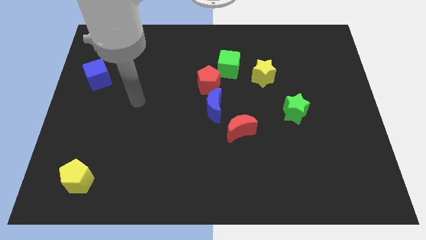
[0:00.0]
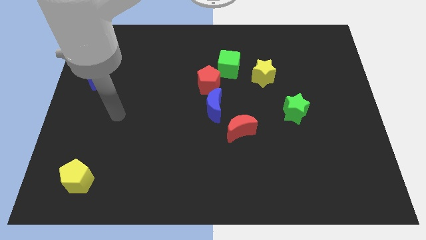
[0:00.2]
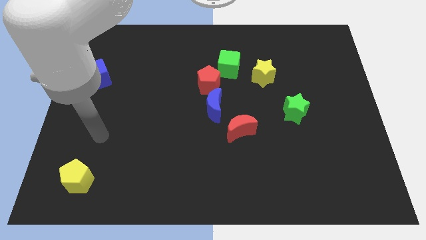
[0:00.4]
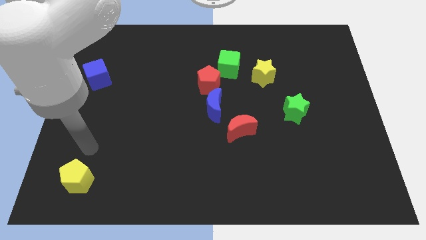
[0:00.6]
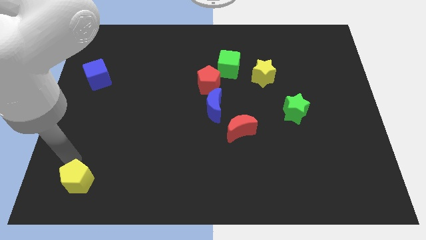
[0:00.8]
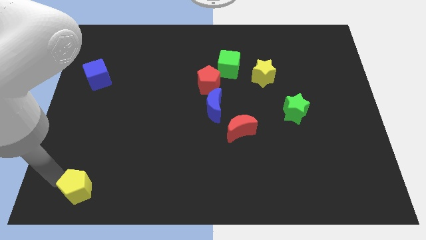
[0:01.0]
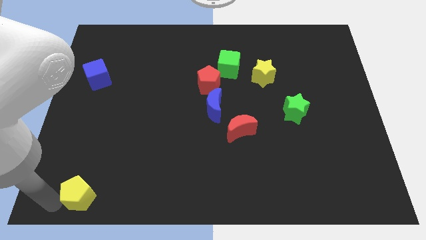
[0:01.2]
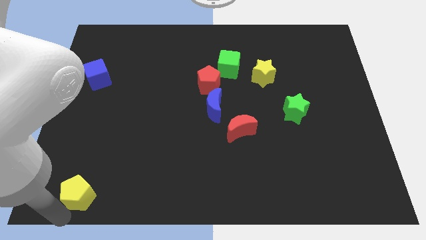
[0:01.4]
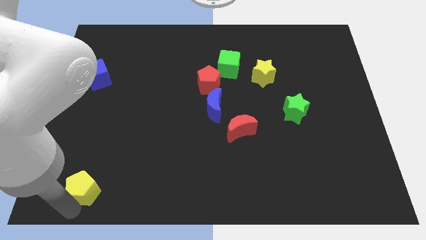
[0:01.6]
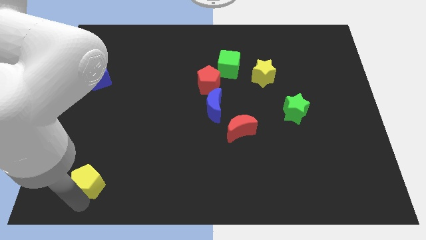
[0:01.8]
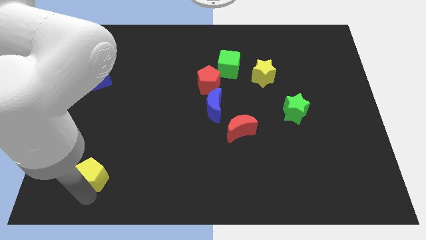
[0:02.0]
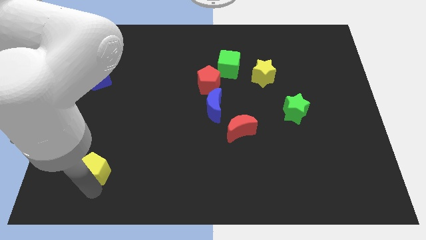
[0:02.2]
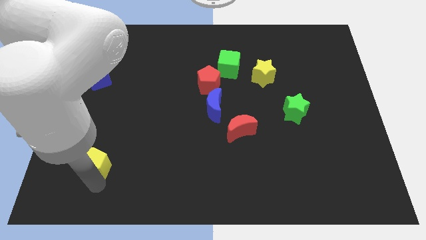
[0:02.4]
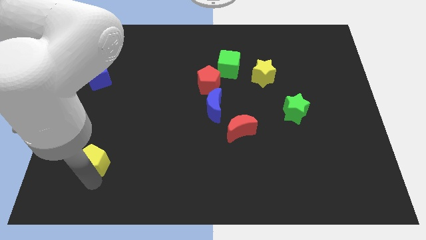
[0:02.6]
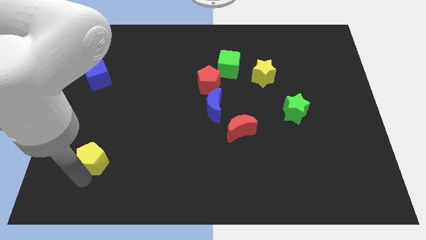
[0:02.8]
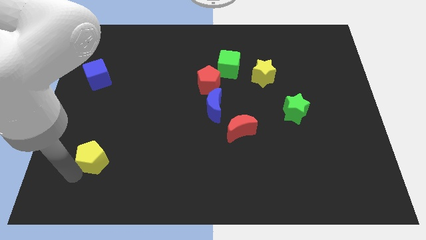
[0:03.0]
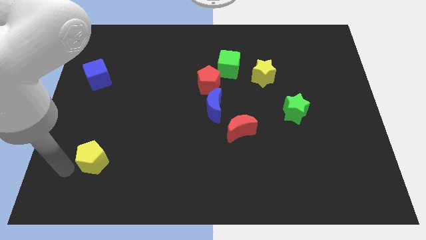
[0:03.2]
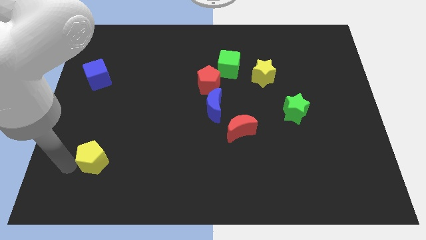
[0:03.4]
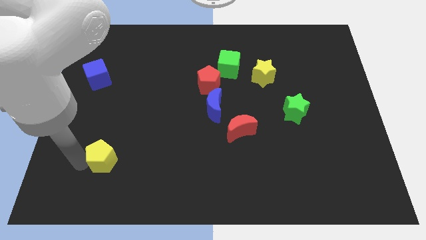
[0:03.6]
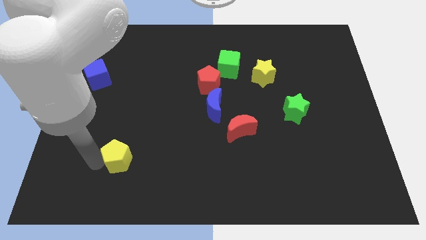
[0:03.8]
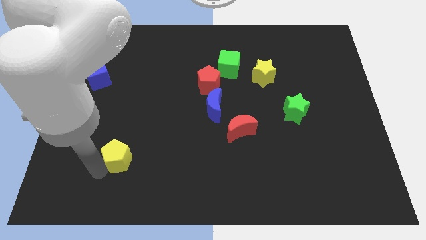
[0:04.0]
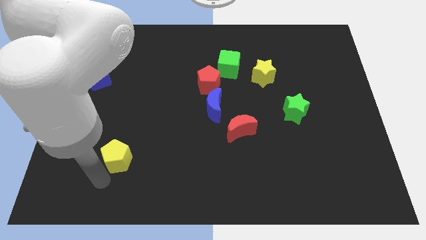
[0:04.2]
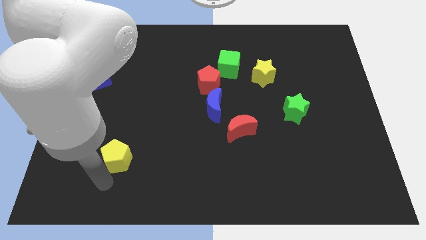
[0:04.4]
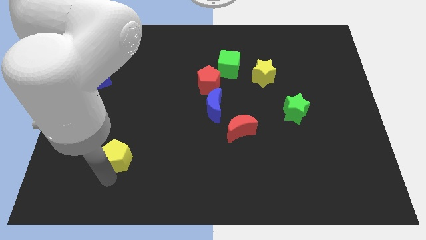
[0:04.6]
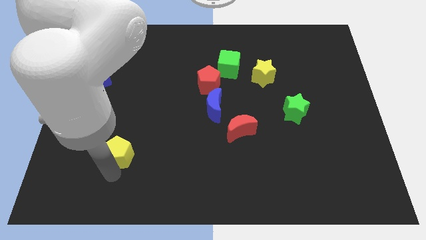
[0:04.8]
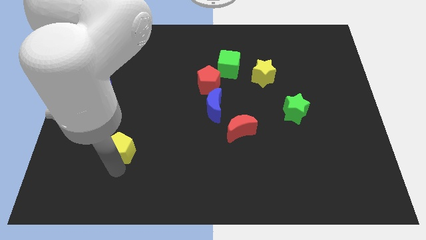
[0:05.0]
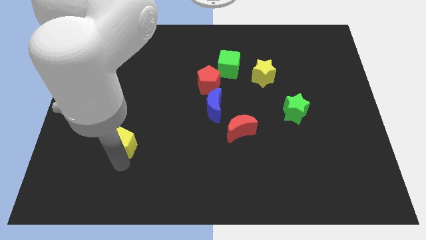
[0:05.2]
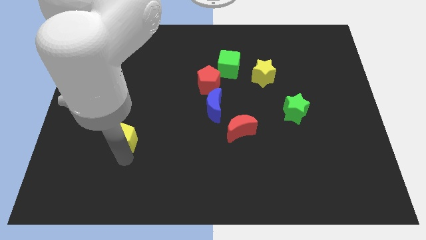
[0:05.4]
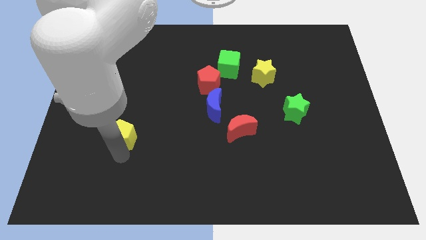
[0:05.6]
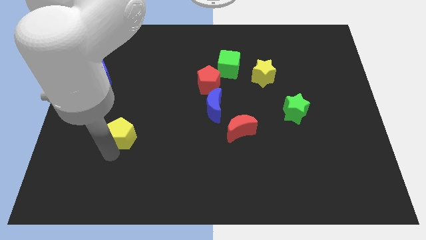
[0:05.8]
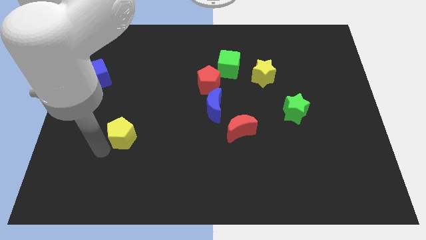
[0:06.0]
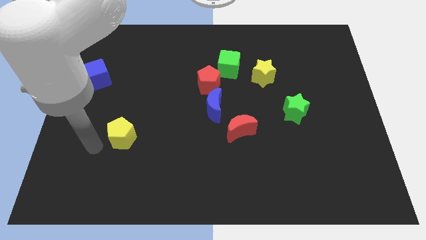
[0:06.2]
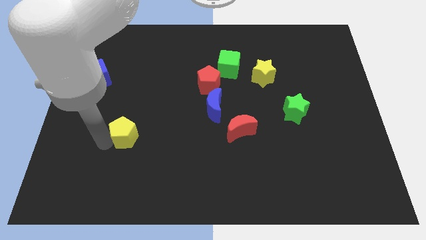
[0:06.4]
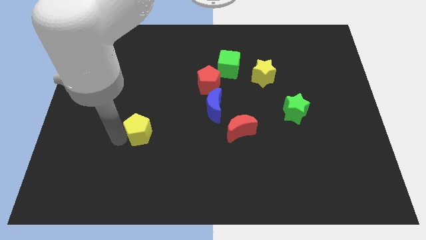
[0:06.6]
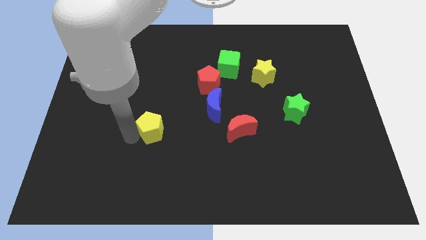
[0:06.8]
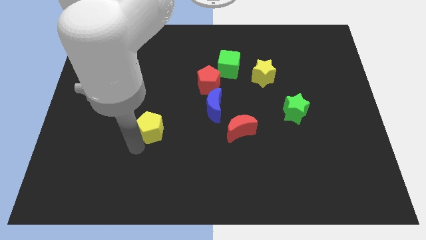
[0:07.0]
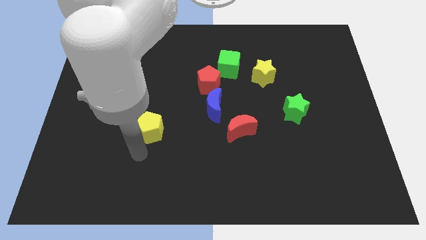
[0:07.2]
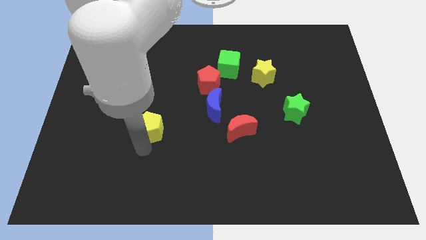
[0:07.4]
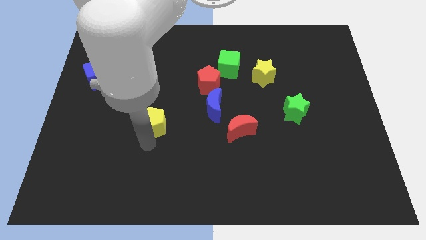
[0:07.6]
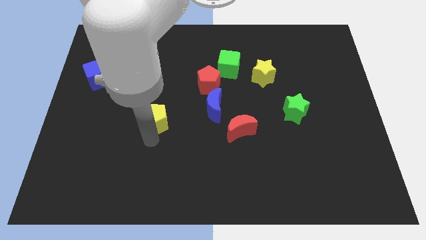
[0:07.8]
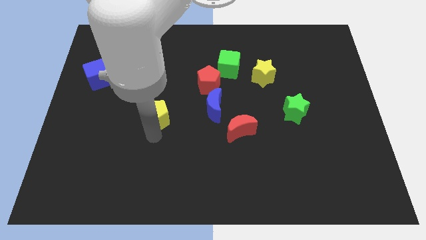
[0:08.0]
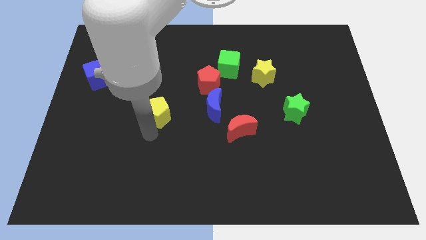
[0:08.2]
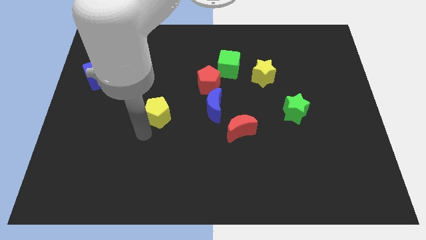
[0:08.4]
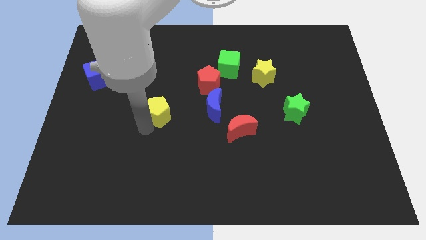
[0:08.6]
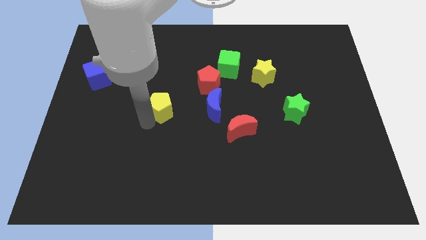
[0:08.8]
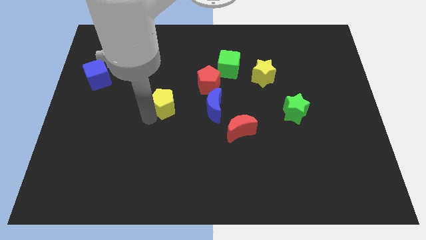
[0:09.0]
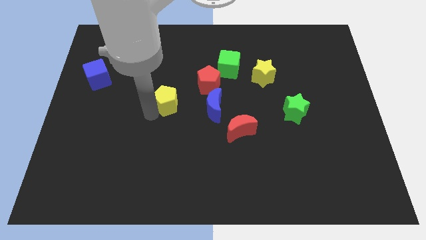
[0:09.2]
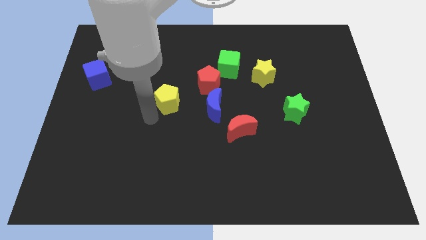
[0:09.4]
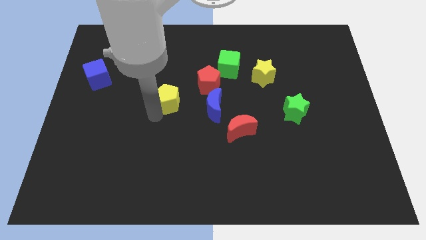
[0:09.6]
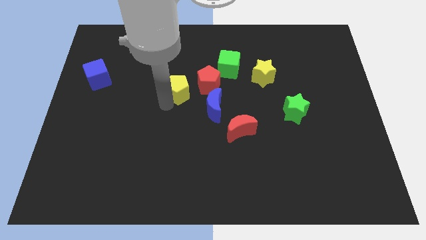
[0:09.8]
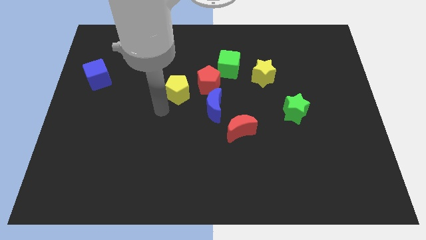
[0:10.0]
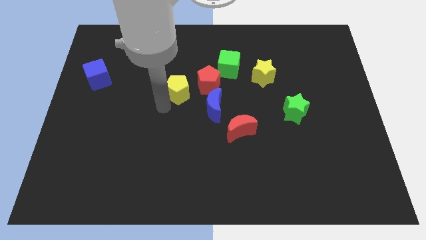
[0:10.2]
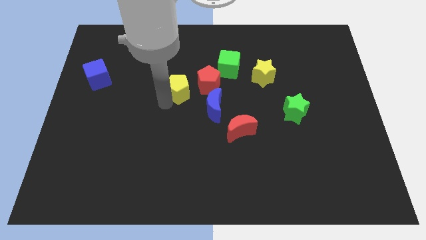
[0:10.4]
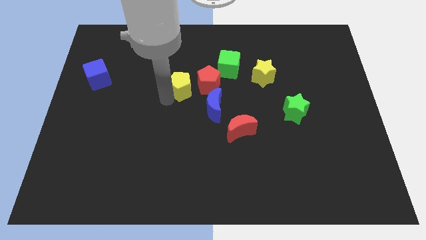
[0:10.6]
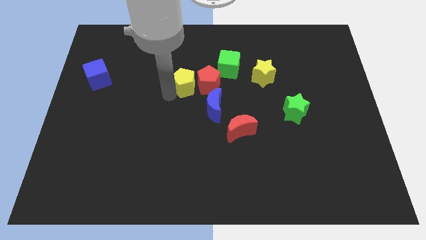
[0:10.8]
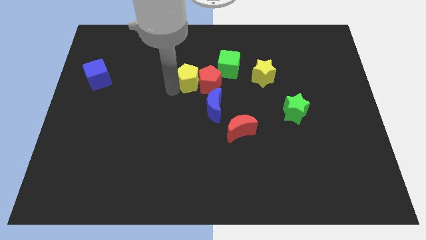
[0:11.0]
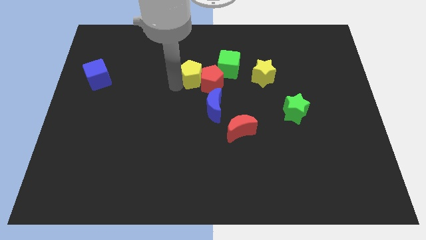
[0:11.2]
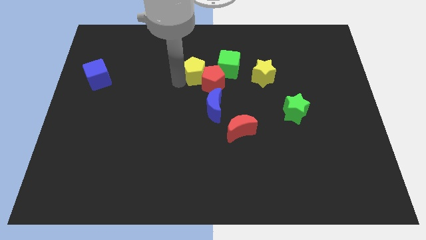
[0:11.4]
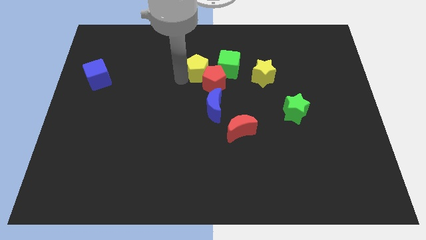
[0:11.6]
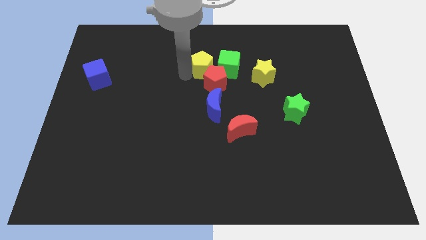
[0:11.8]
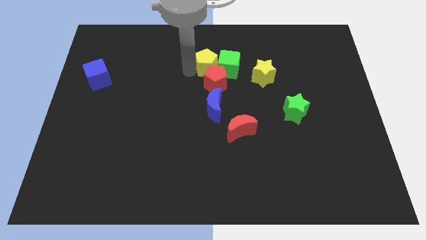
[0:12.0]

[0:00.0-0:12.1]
push the yellow pentagon to the green cube

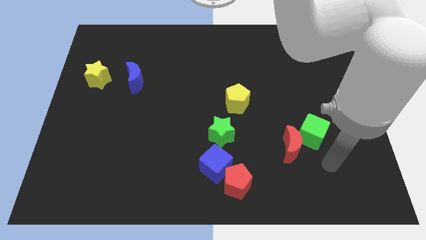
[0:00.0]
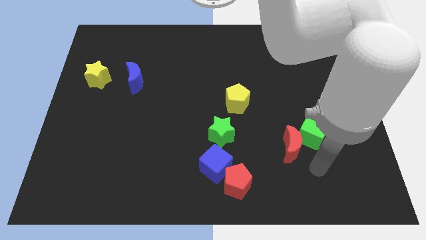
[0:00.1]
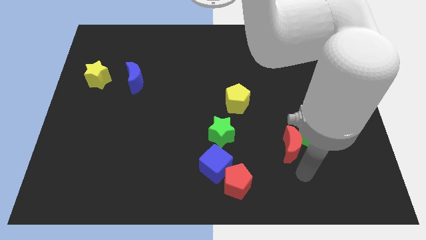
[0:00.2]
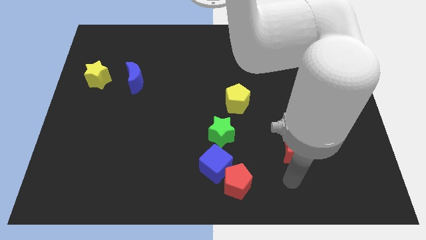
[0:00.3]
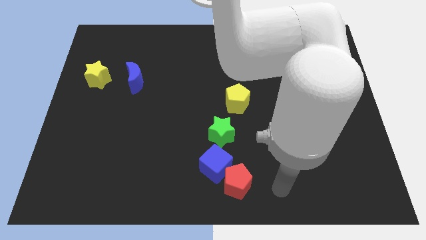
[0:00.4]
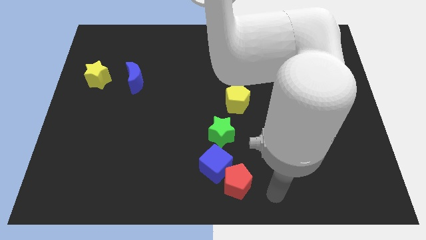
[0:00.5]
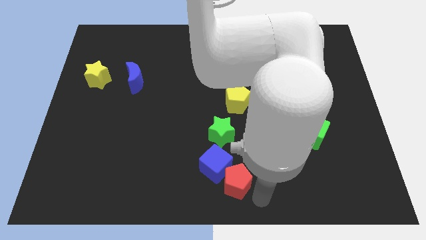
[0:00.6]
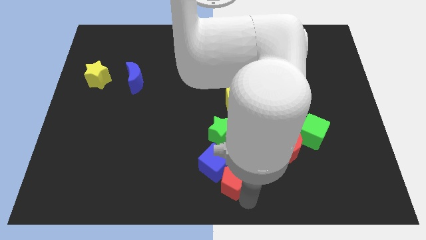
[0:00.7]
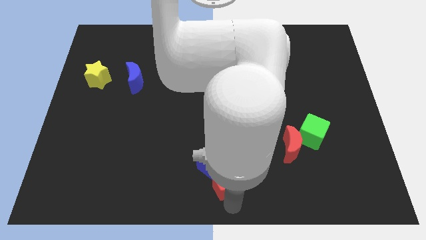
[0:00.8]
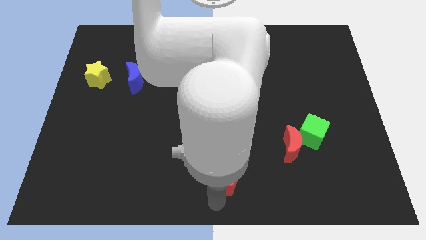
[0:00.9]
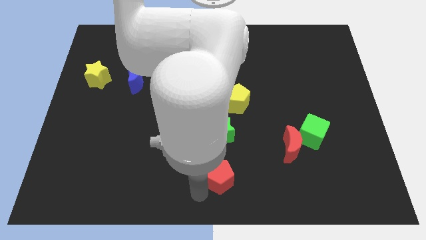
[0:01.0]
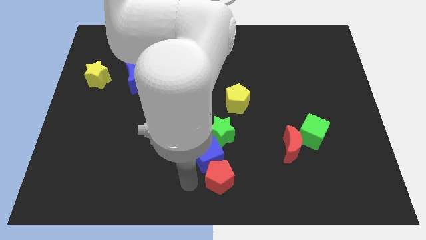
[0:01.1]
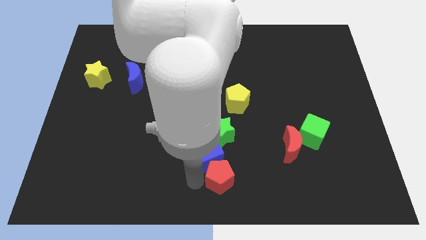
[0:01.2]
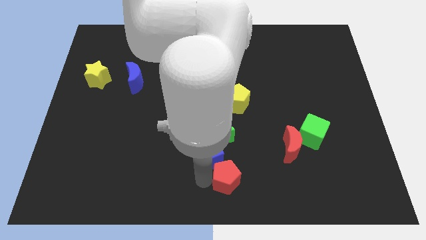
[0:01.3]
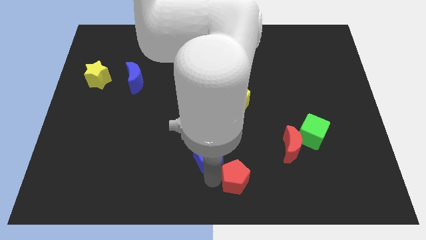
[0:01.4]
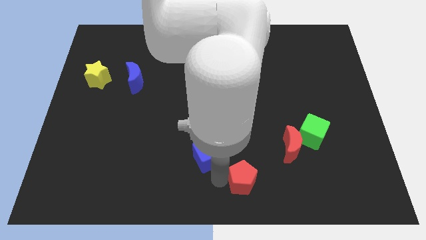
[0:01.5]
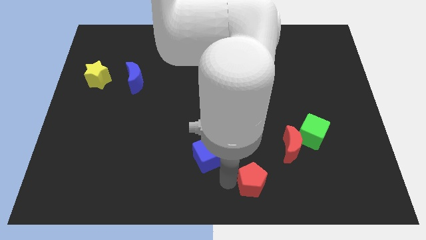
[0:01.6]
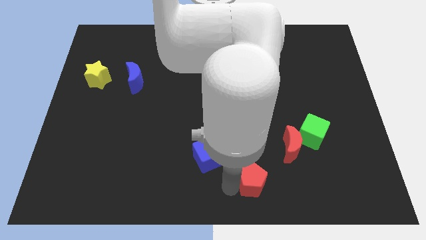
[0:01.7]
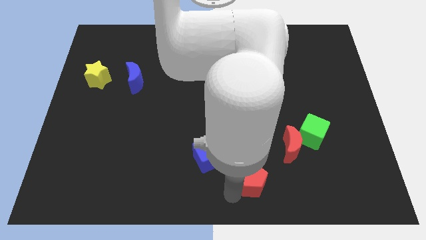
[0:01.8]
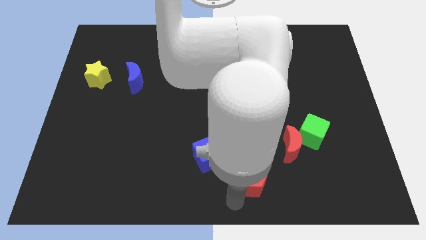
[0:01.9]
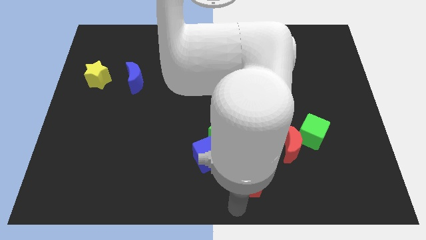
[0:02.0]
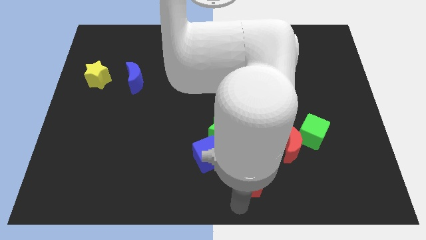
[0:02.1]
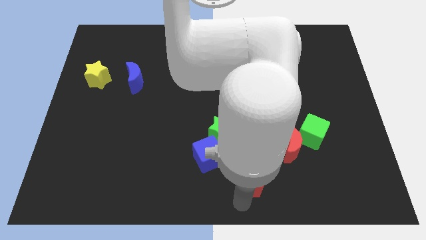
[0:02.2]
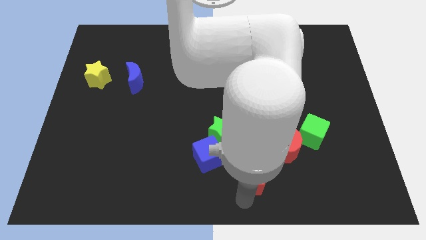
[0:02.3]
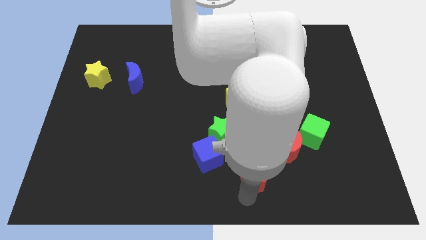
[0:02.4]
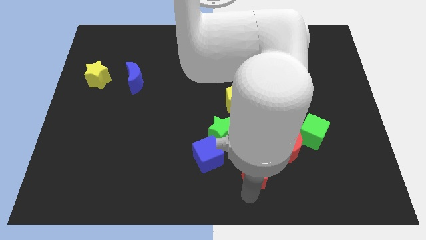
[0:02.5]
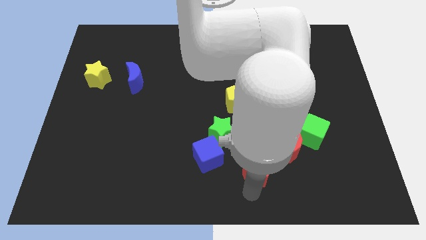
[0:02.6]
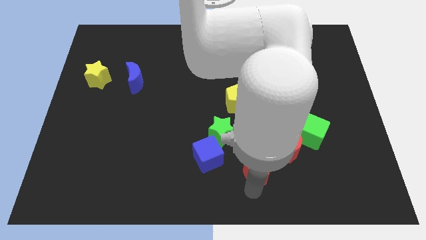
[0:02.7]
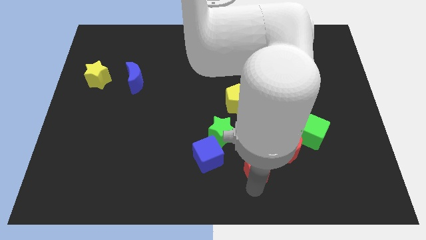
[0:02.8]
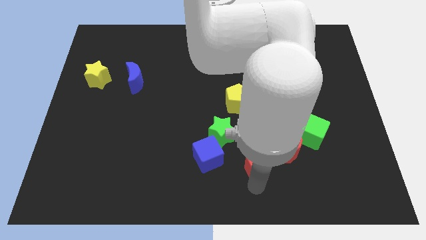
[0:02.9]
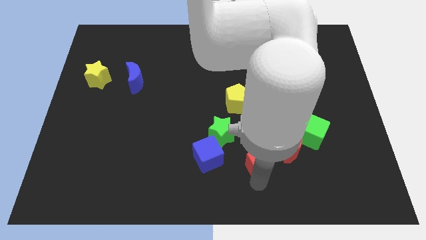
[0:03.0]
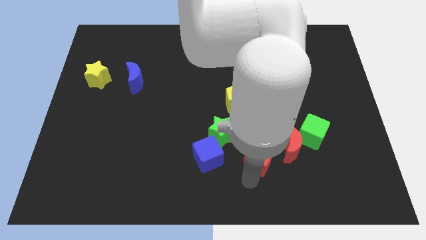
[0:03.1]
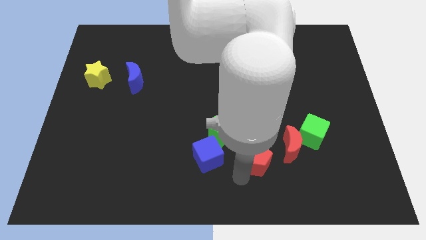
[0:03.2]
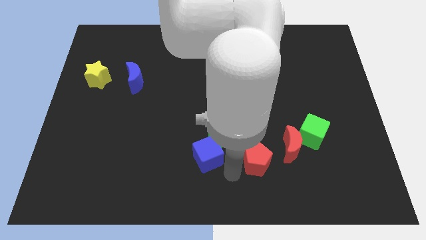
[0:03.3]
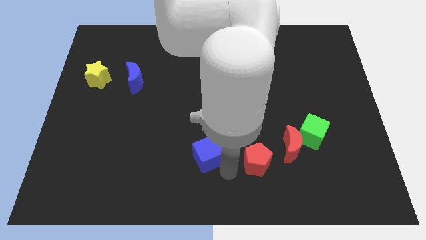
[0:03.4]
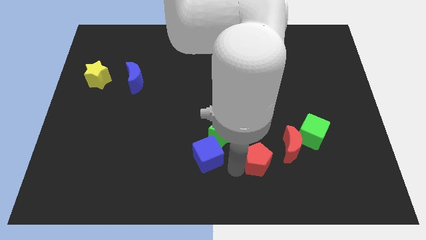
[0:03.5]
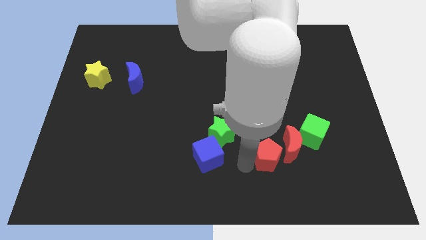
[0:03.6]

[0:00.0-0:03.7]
put the red pentagon next to the red moon
